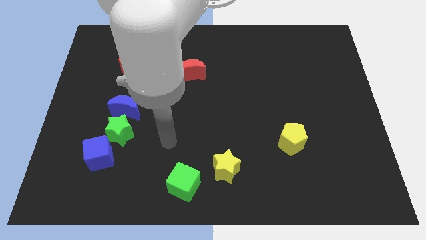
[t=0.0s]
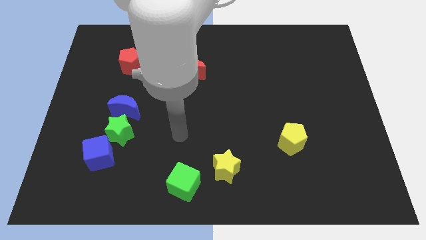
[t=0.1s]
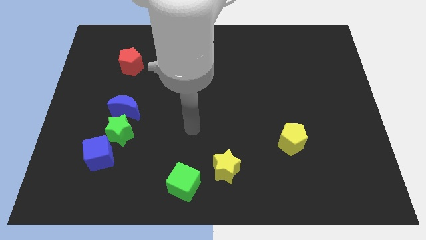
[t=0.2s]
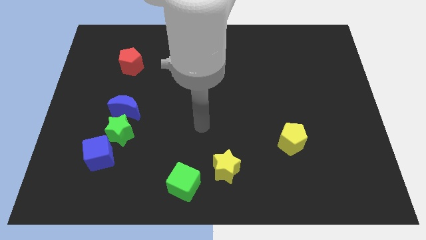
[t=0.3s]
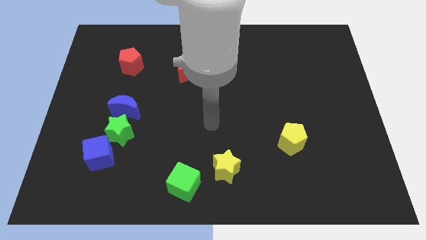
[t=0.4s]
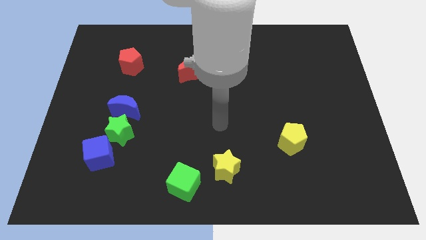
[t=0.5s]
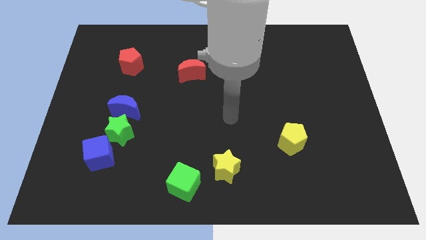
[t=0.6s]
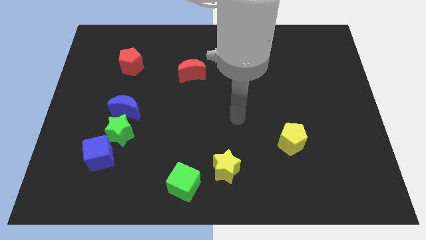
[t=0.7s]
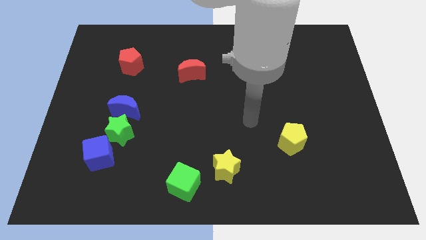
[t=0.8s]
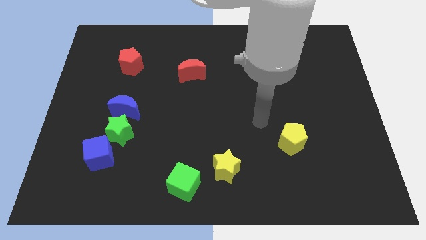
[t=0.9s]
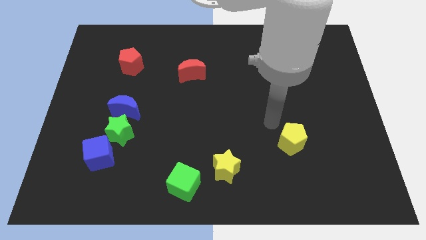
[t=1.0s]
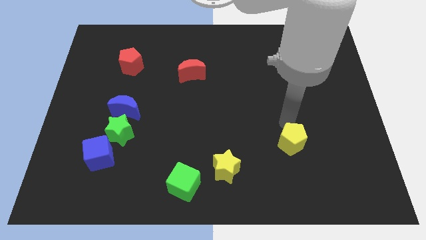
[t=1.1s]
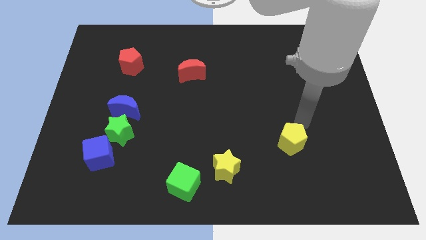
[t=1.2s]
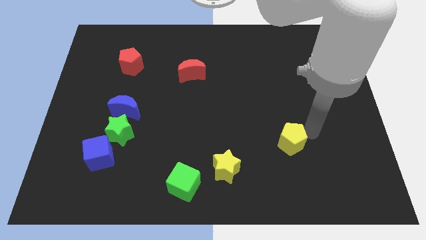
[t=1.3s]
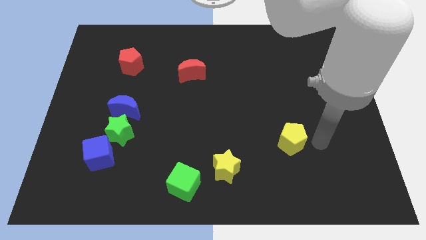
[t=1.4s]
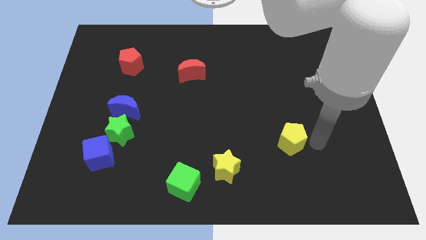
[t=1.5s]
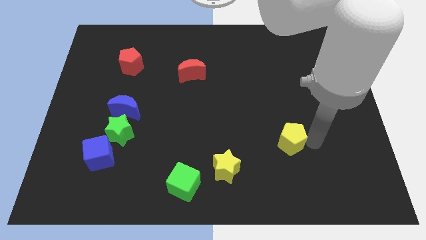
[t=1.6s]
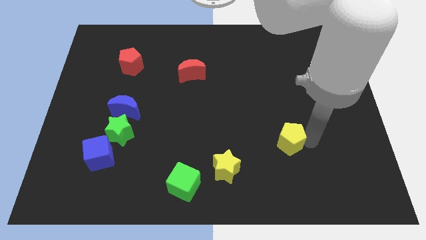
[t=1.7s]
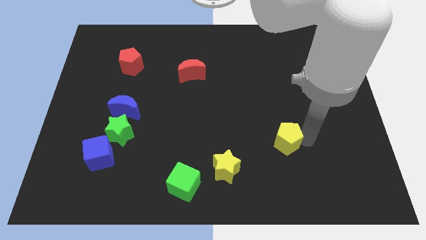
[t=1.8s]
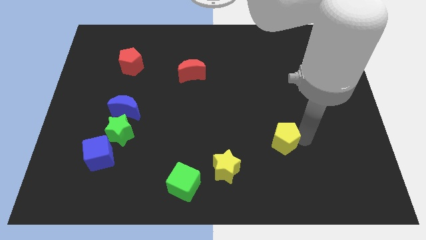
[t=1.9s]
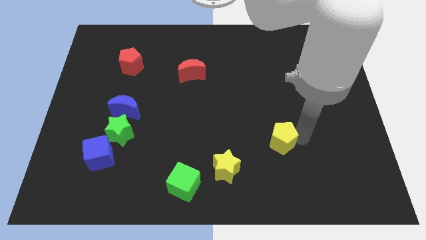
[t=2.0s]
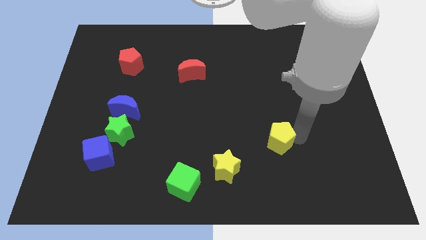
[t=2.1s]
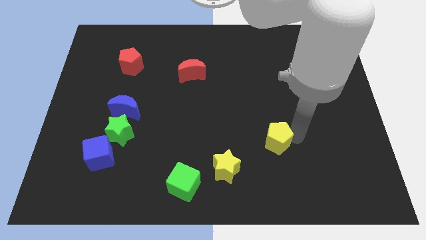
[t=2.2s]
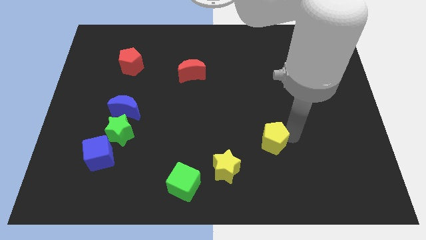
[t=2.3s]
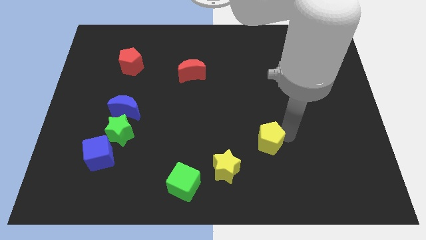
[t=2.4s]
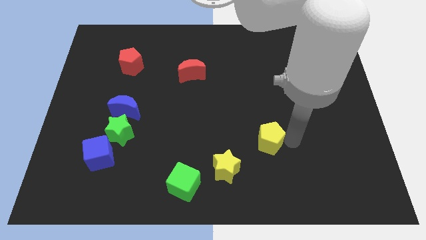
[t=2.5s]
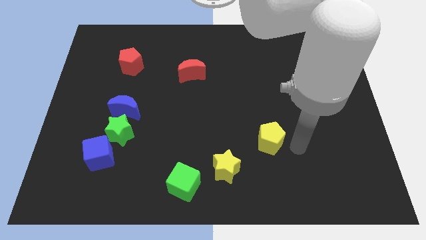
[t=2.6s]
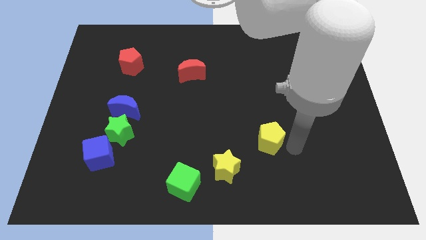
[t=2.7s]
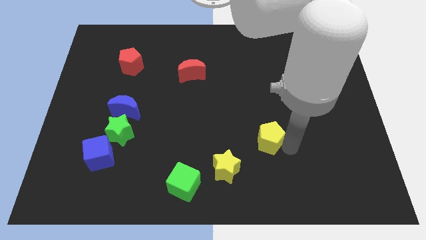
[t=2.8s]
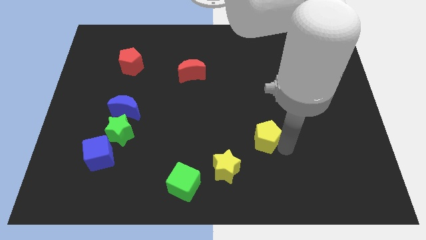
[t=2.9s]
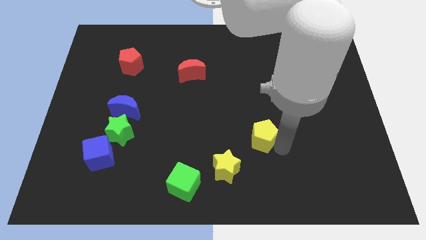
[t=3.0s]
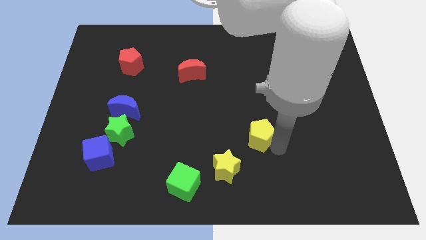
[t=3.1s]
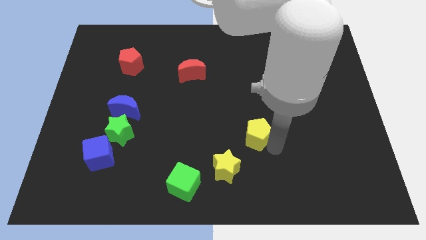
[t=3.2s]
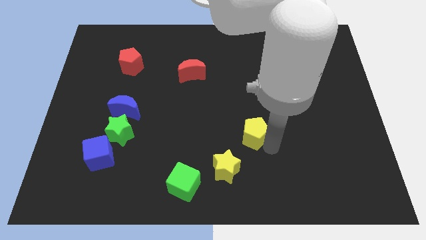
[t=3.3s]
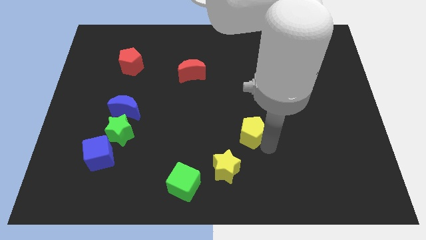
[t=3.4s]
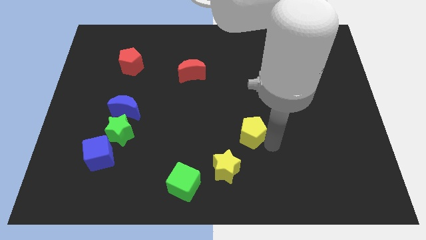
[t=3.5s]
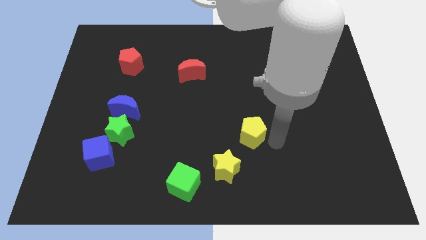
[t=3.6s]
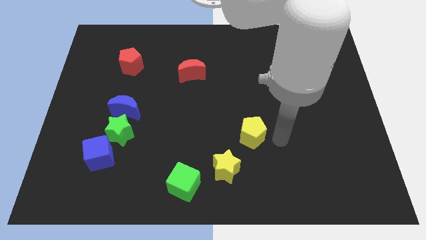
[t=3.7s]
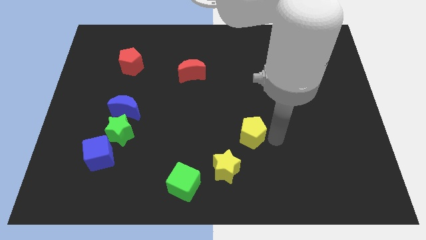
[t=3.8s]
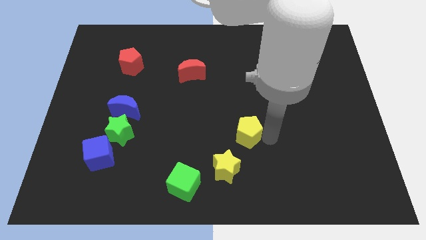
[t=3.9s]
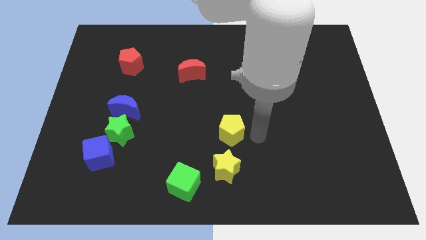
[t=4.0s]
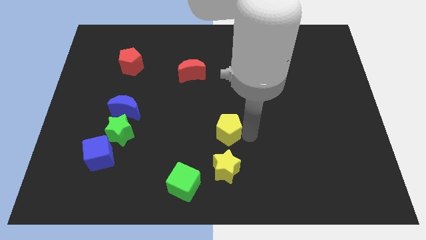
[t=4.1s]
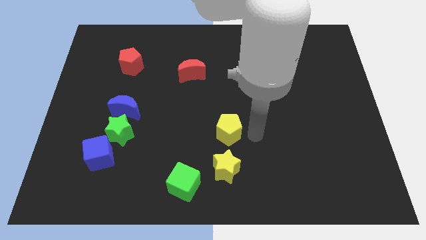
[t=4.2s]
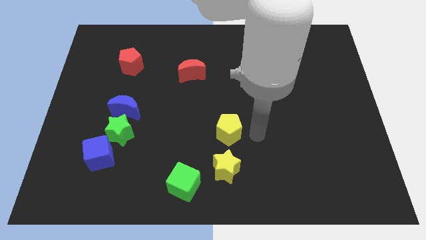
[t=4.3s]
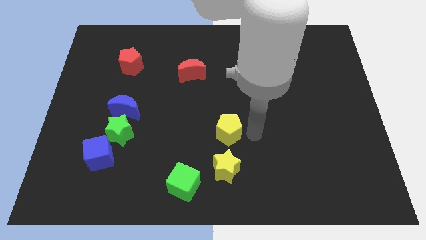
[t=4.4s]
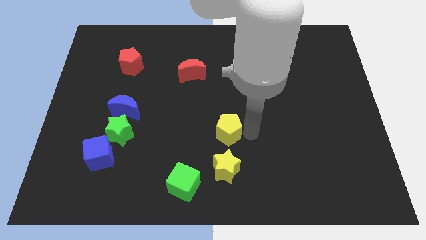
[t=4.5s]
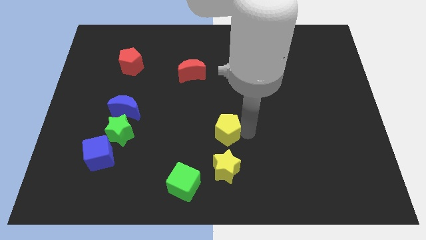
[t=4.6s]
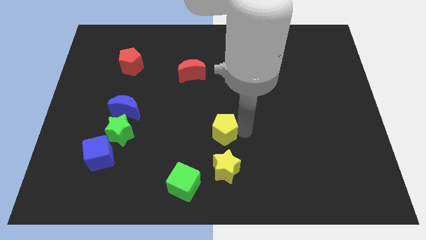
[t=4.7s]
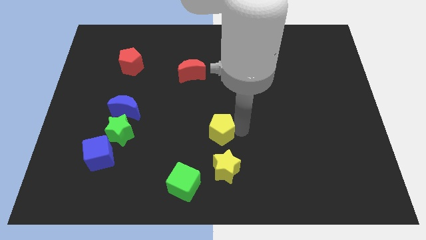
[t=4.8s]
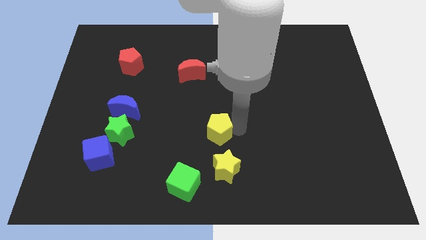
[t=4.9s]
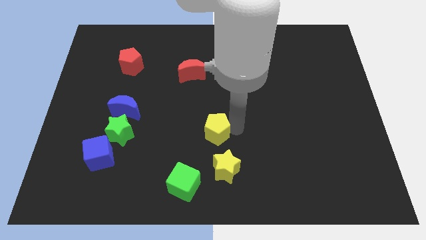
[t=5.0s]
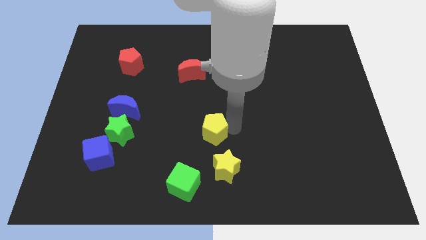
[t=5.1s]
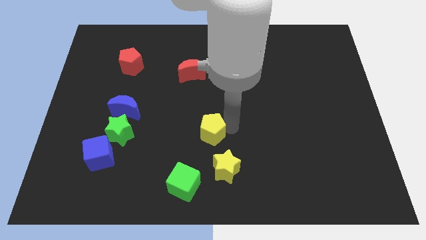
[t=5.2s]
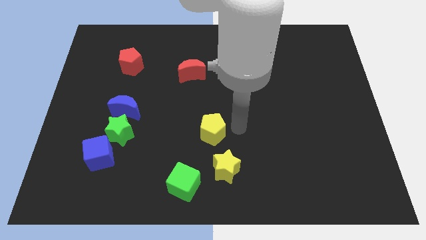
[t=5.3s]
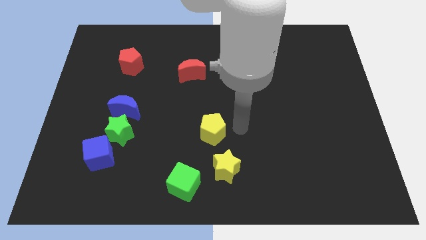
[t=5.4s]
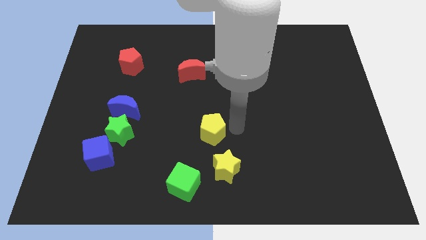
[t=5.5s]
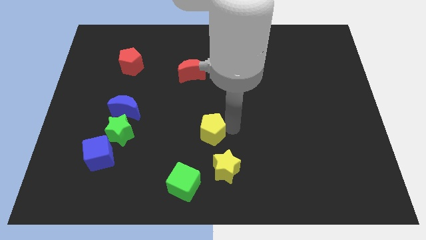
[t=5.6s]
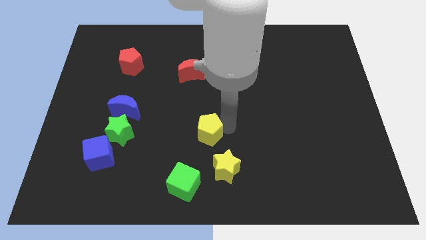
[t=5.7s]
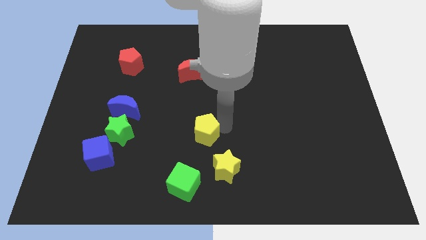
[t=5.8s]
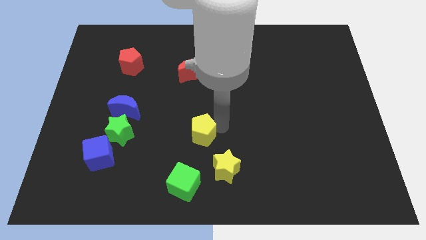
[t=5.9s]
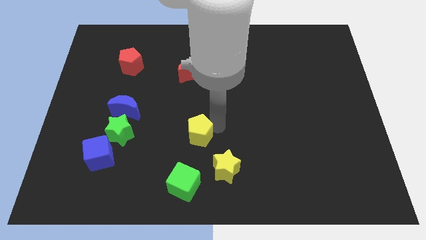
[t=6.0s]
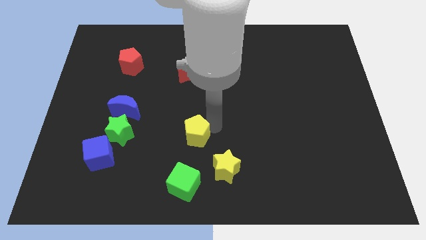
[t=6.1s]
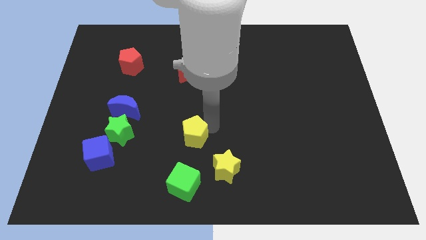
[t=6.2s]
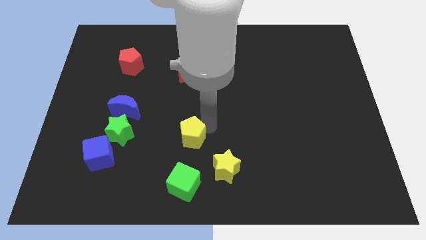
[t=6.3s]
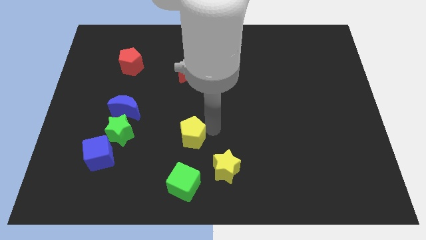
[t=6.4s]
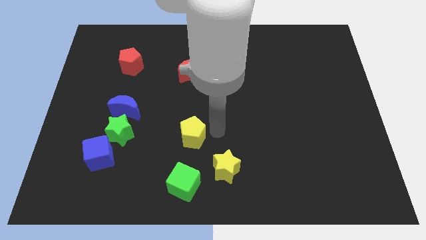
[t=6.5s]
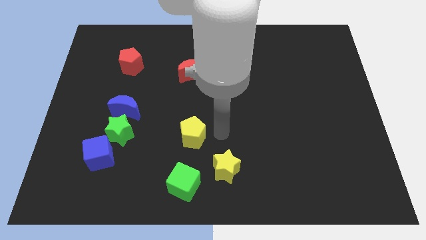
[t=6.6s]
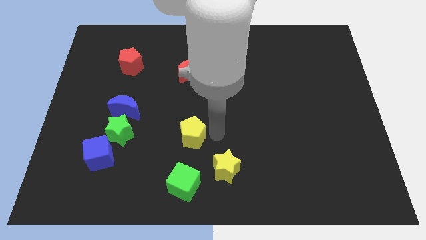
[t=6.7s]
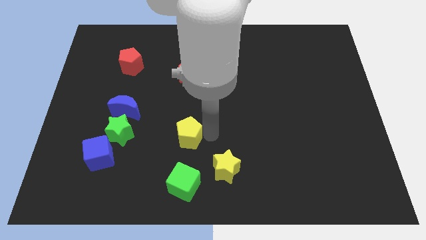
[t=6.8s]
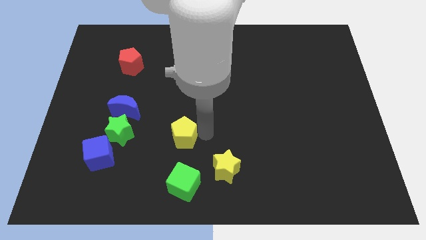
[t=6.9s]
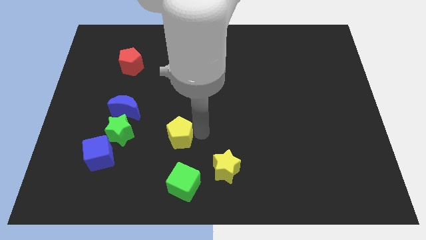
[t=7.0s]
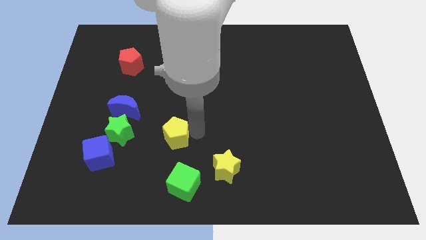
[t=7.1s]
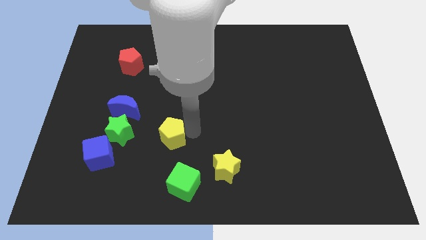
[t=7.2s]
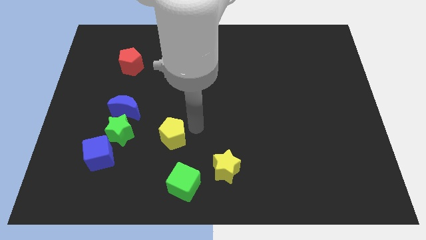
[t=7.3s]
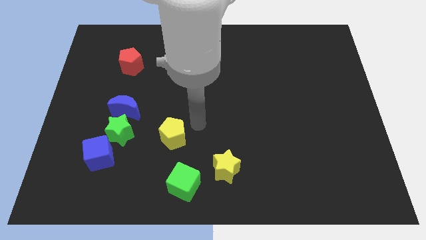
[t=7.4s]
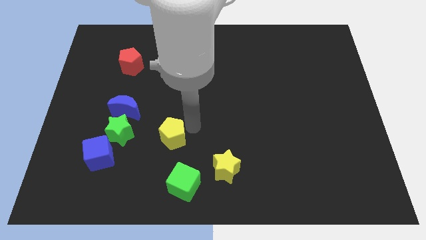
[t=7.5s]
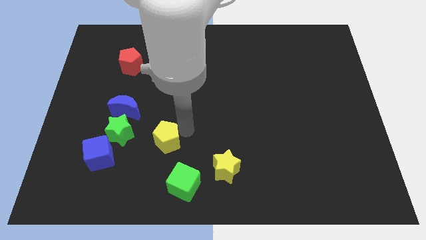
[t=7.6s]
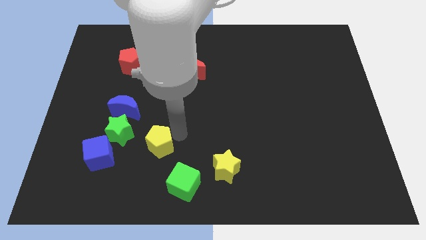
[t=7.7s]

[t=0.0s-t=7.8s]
slide the yellow pentagon diagonally down and to the right of the green star

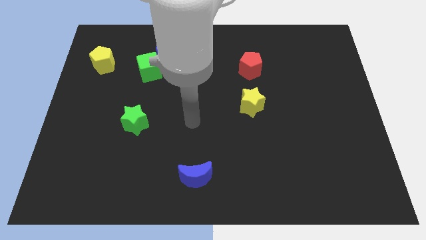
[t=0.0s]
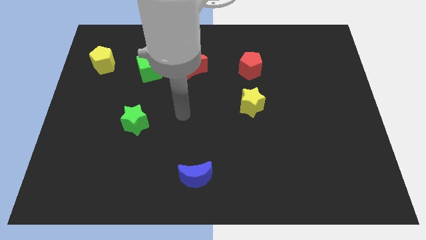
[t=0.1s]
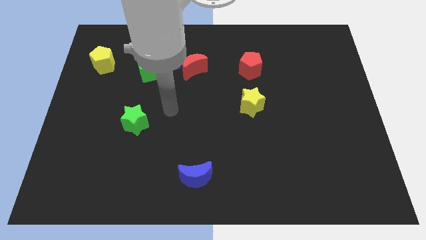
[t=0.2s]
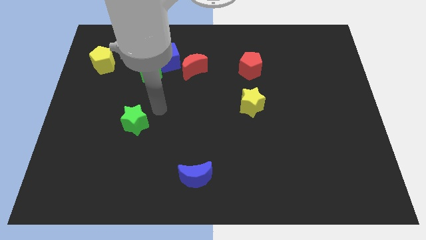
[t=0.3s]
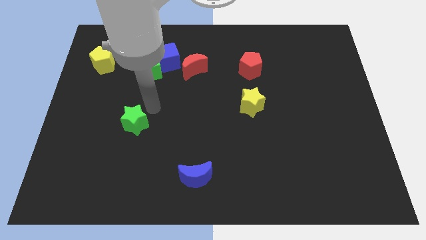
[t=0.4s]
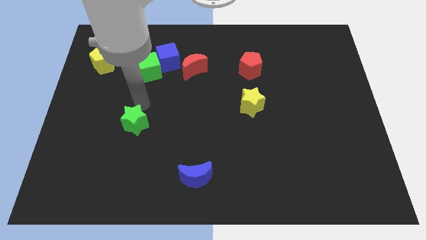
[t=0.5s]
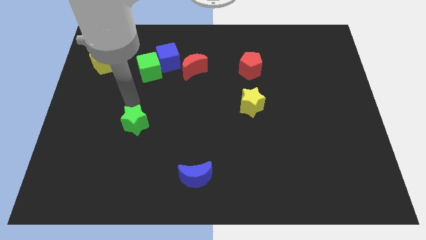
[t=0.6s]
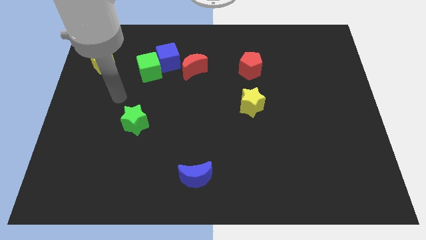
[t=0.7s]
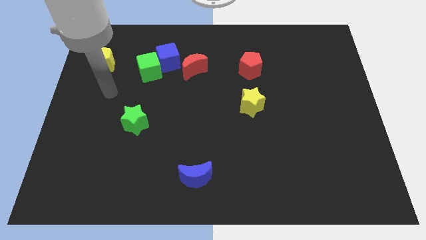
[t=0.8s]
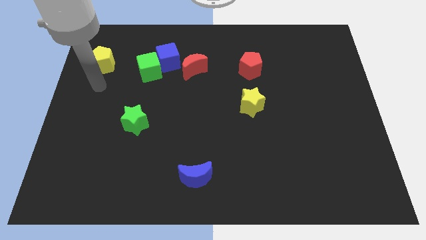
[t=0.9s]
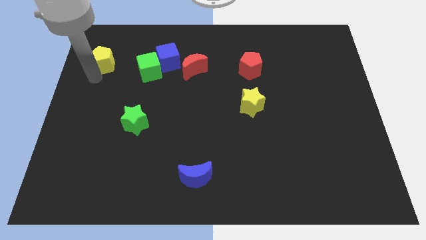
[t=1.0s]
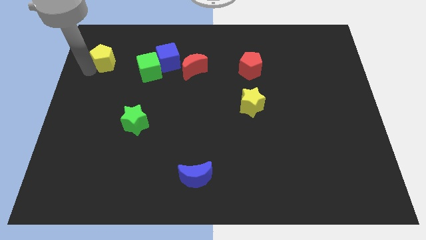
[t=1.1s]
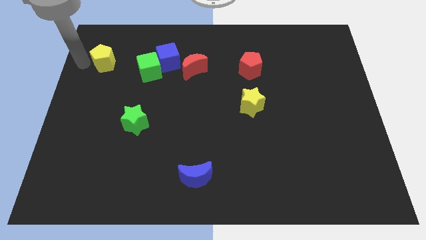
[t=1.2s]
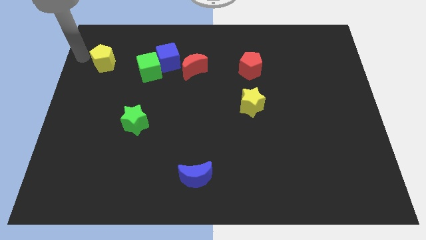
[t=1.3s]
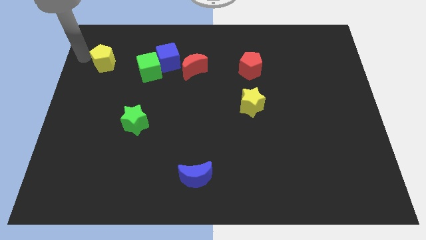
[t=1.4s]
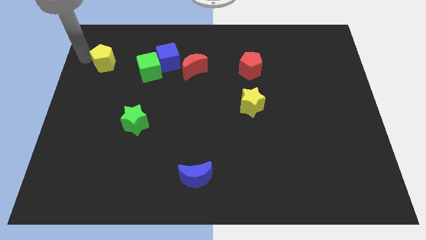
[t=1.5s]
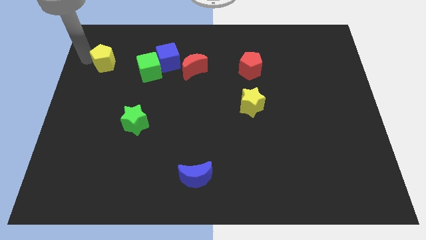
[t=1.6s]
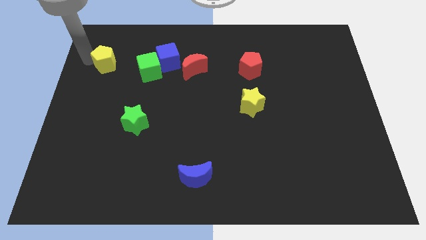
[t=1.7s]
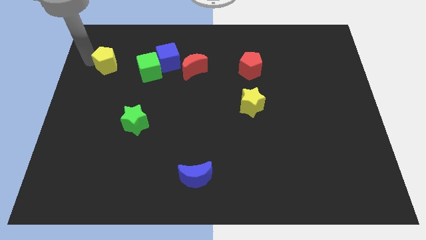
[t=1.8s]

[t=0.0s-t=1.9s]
push the yellow pentagon left of the blue cube
